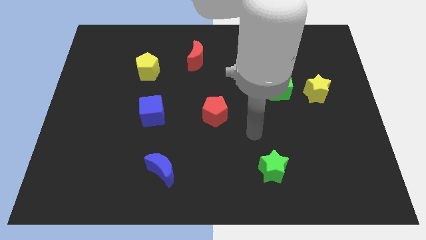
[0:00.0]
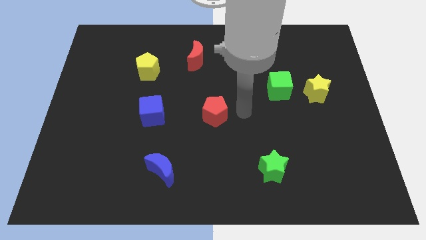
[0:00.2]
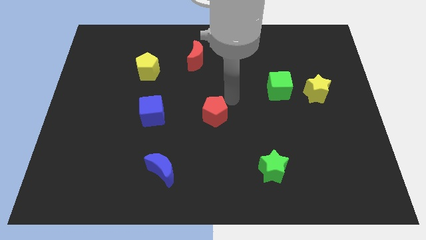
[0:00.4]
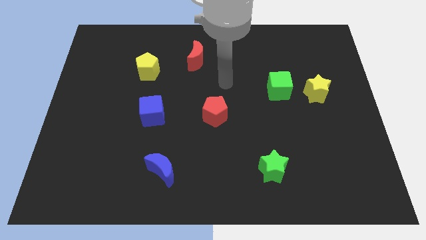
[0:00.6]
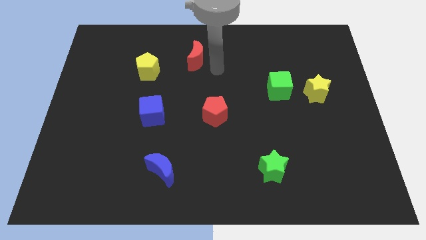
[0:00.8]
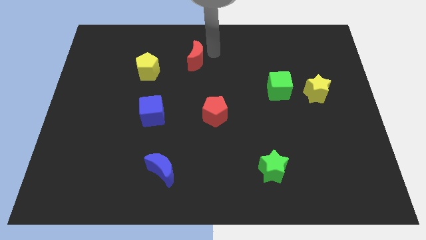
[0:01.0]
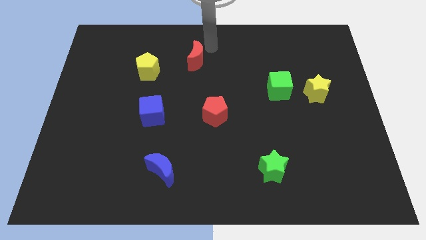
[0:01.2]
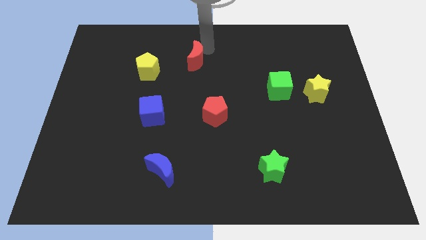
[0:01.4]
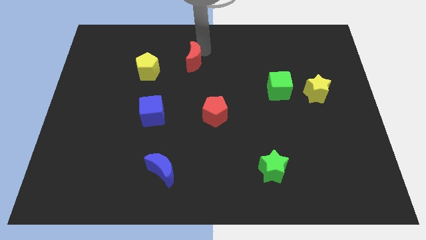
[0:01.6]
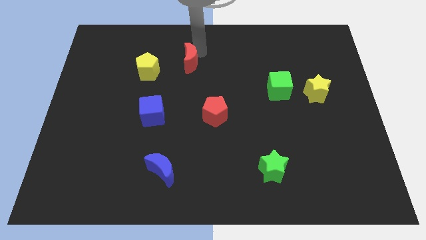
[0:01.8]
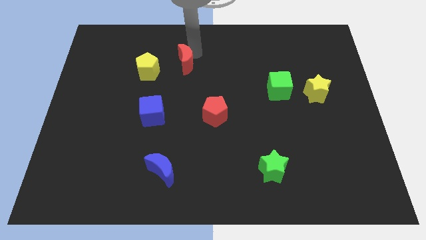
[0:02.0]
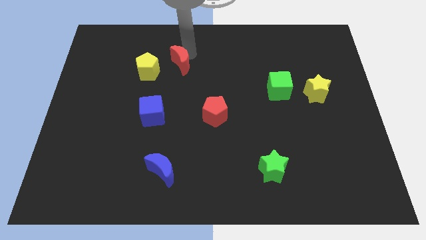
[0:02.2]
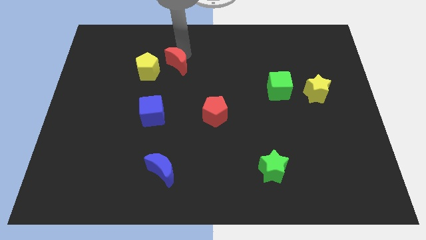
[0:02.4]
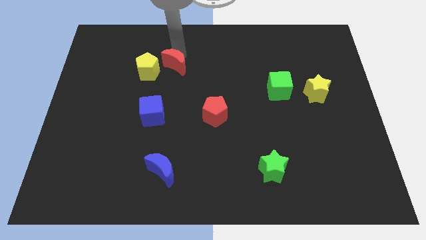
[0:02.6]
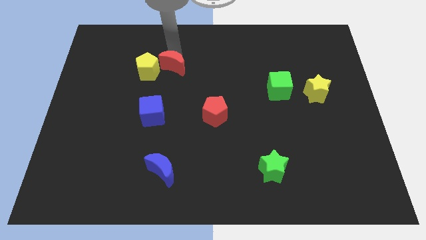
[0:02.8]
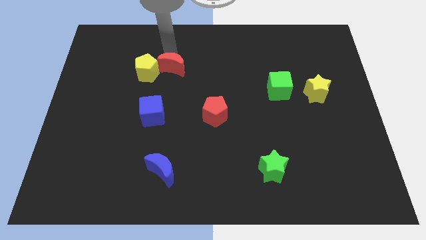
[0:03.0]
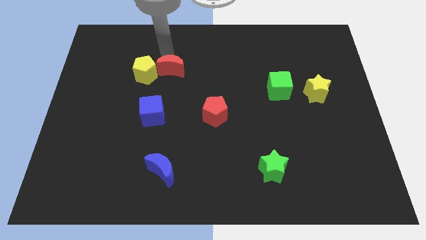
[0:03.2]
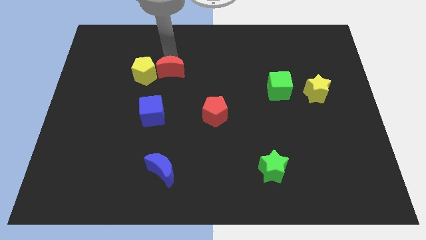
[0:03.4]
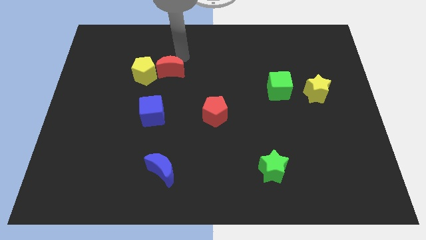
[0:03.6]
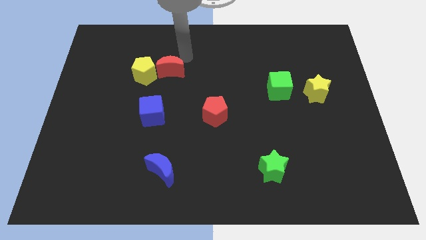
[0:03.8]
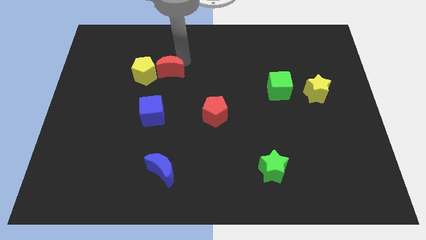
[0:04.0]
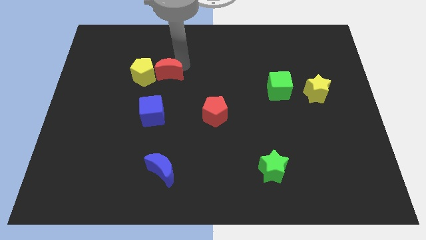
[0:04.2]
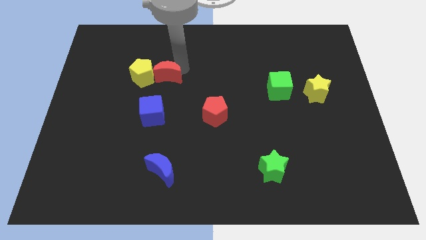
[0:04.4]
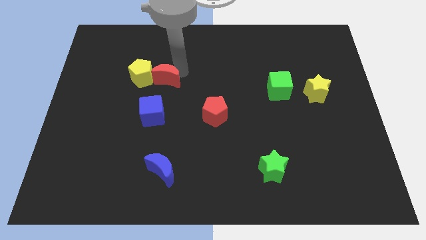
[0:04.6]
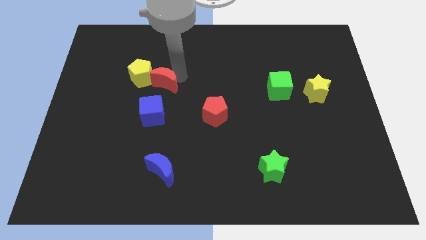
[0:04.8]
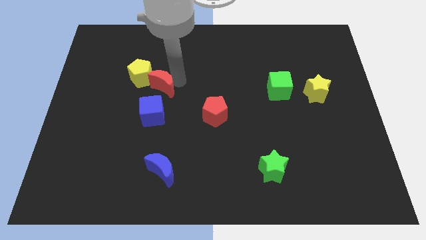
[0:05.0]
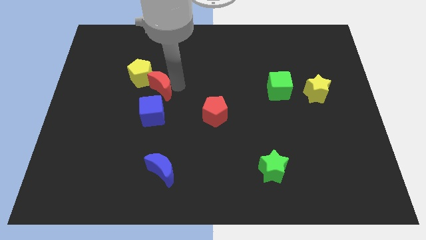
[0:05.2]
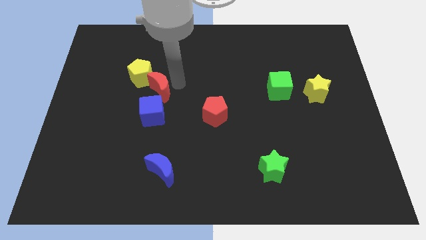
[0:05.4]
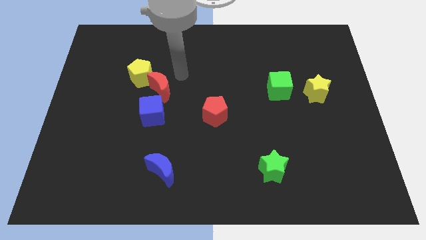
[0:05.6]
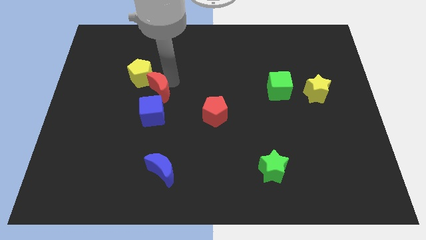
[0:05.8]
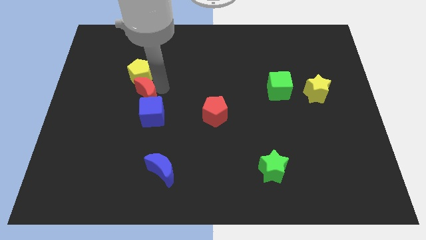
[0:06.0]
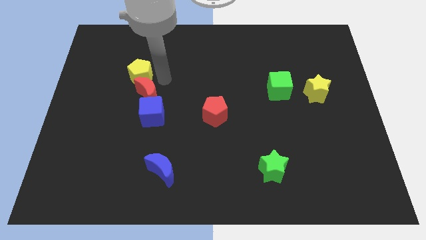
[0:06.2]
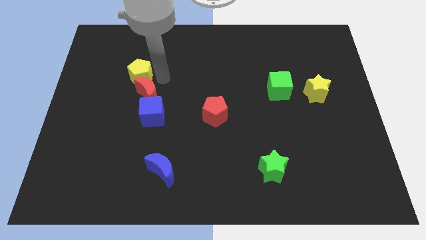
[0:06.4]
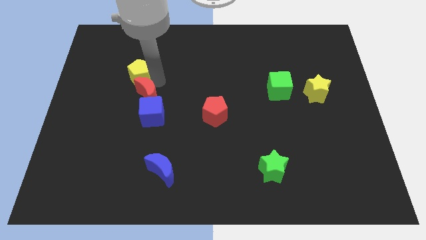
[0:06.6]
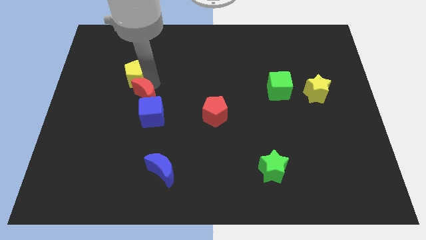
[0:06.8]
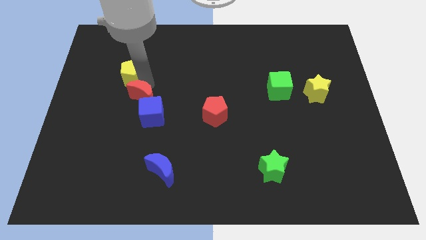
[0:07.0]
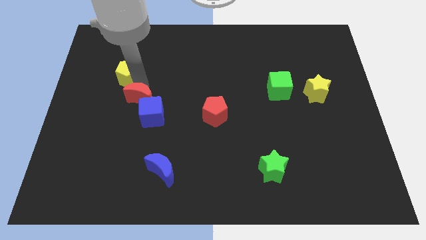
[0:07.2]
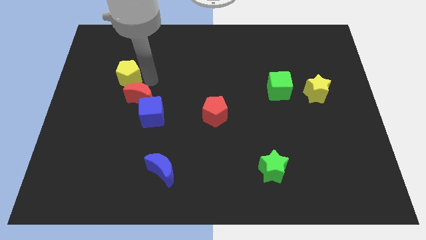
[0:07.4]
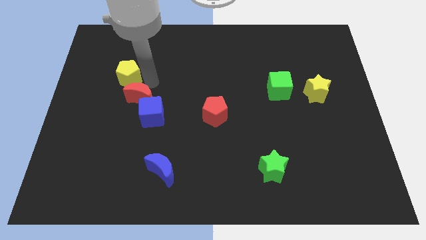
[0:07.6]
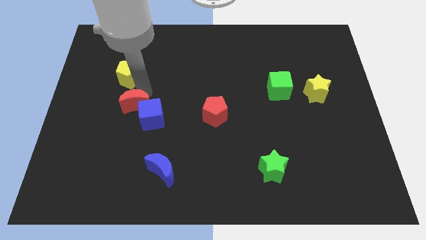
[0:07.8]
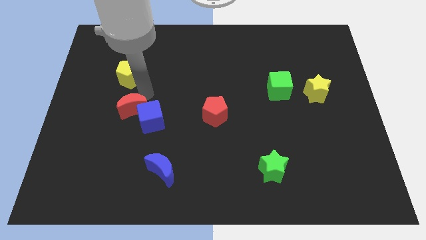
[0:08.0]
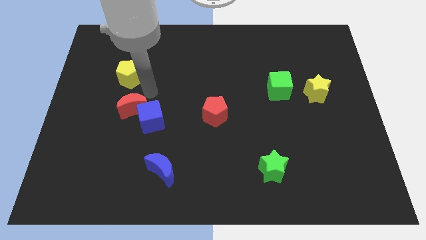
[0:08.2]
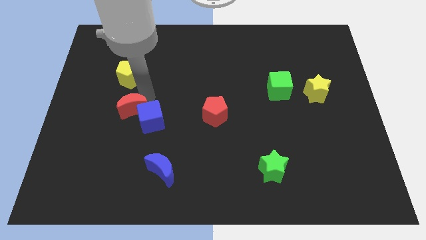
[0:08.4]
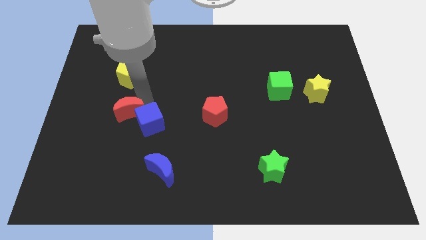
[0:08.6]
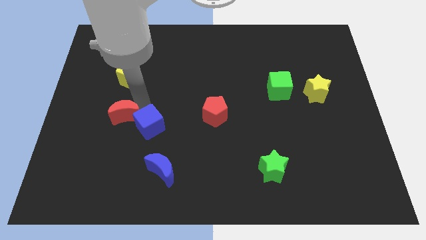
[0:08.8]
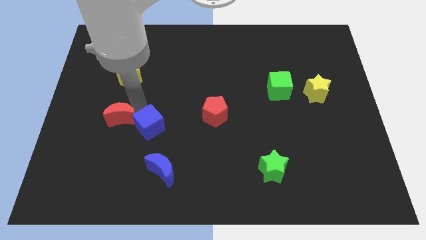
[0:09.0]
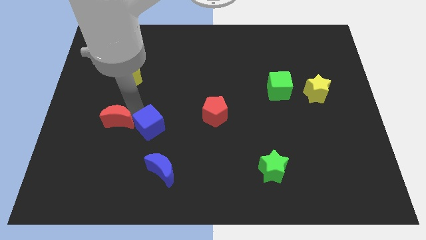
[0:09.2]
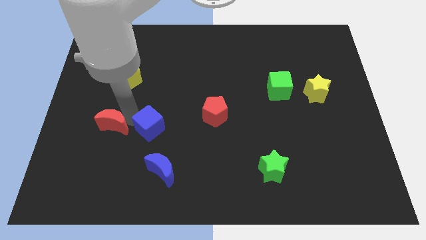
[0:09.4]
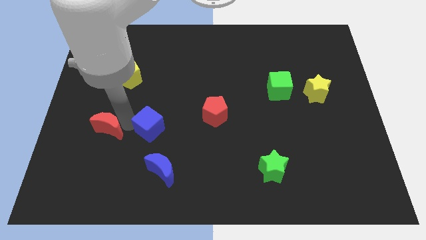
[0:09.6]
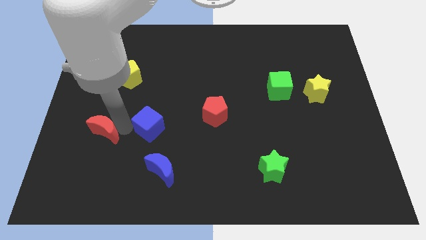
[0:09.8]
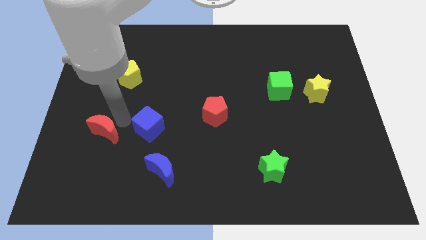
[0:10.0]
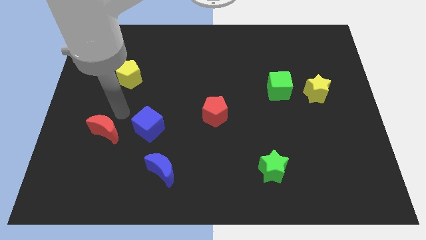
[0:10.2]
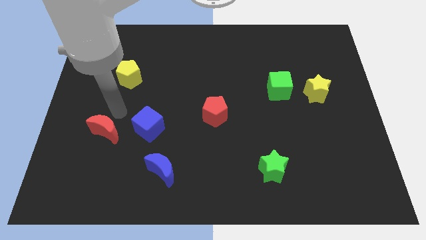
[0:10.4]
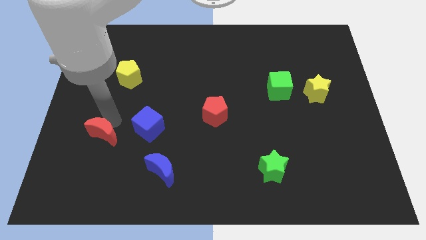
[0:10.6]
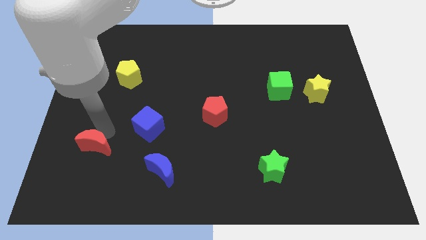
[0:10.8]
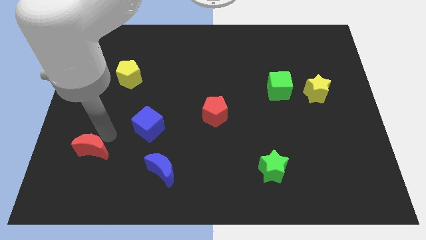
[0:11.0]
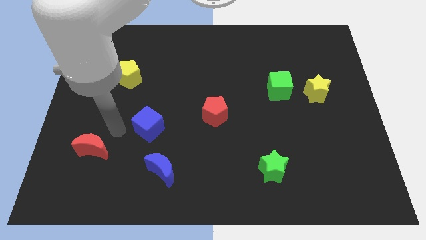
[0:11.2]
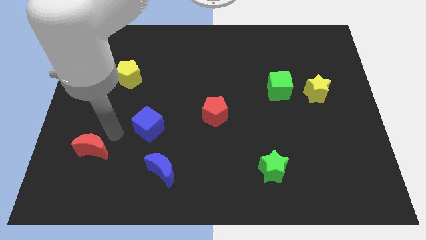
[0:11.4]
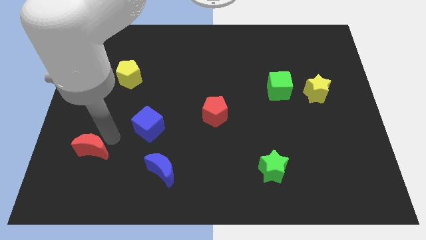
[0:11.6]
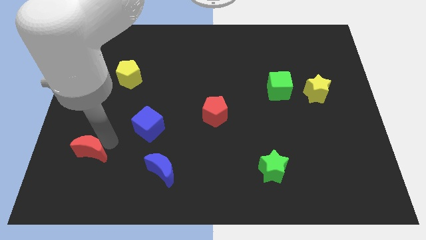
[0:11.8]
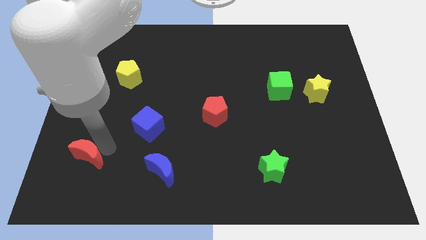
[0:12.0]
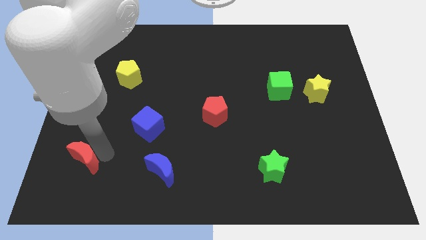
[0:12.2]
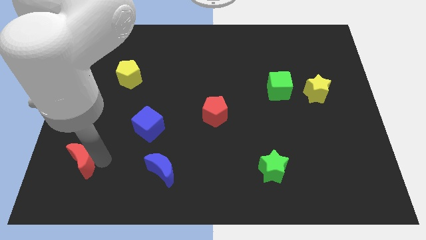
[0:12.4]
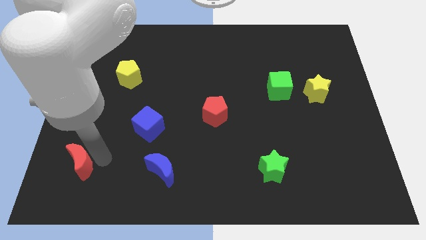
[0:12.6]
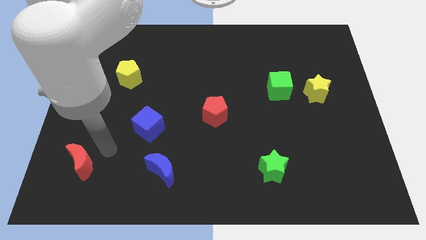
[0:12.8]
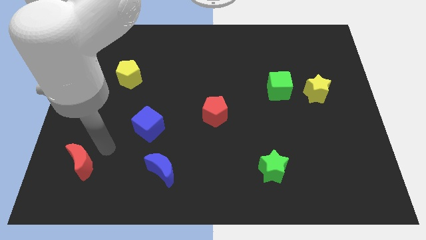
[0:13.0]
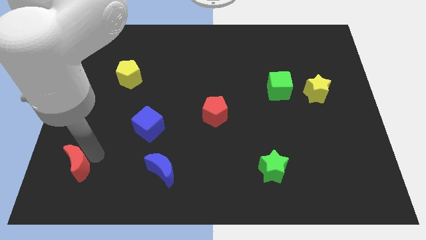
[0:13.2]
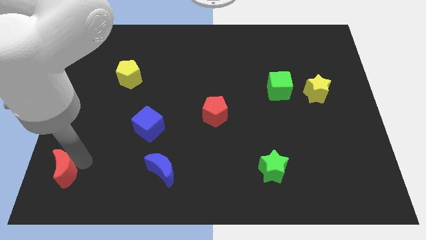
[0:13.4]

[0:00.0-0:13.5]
slide the red moon to the bottom left of the board
